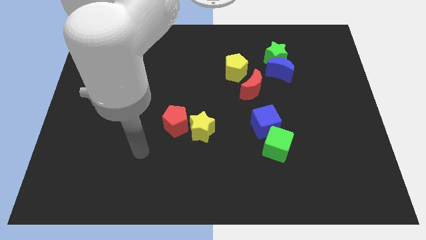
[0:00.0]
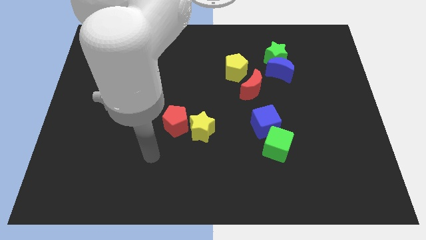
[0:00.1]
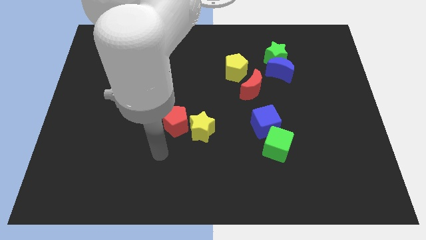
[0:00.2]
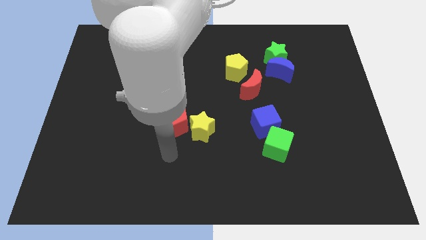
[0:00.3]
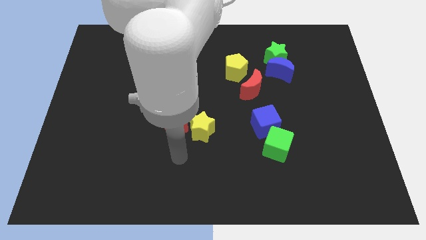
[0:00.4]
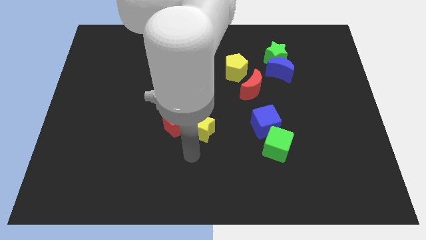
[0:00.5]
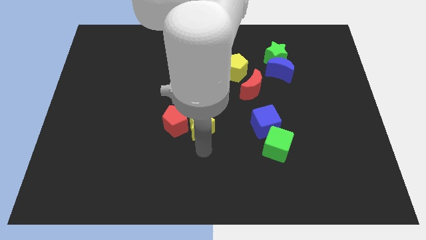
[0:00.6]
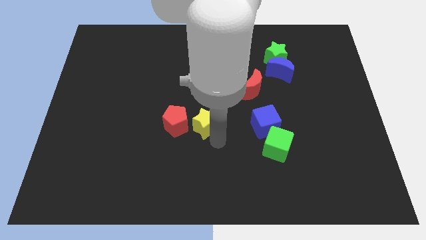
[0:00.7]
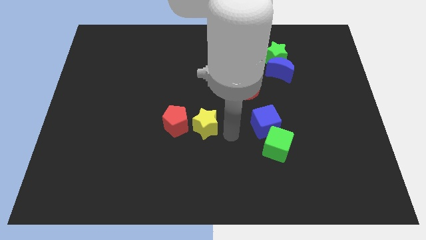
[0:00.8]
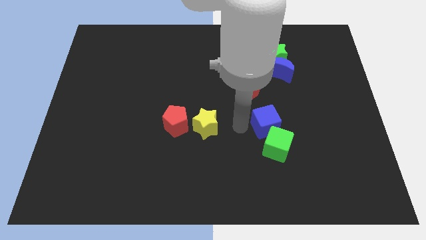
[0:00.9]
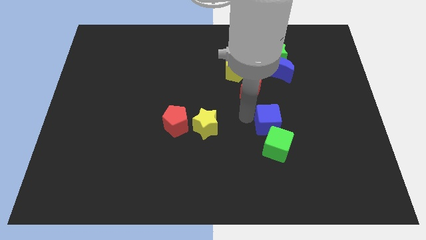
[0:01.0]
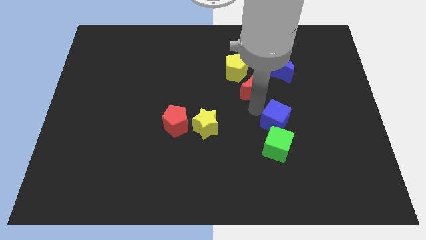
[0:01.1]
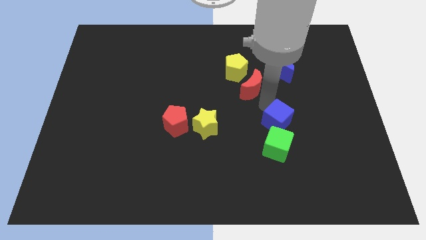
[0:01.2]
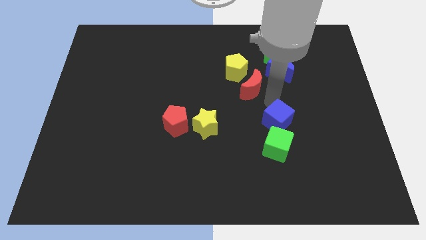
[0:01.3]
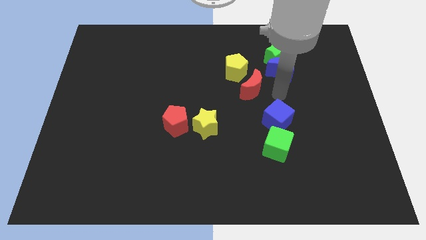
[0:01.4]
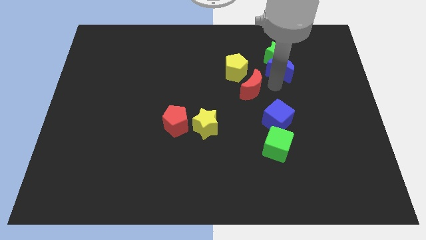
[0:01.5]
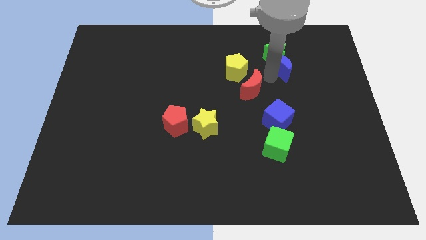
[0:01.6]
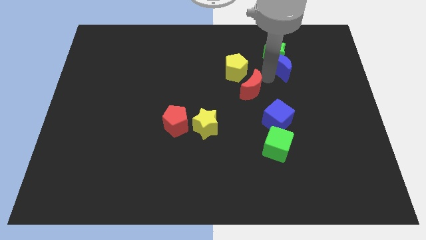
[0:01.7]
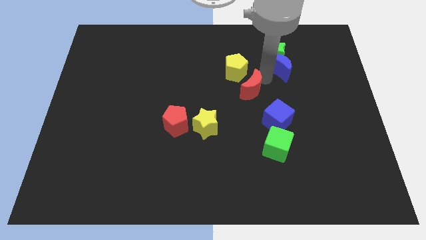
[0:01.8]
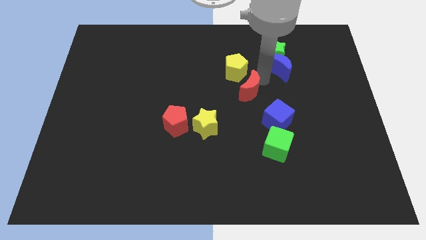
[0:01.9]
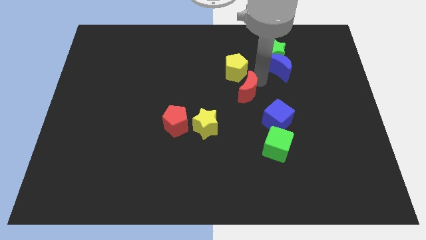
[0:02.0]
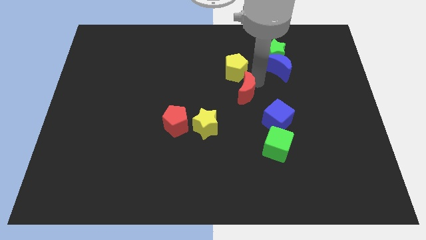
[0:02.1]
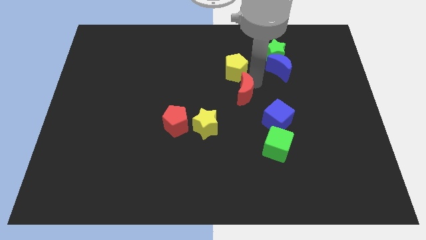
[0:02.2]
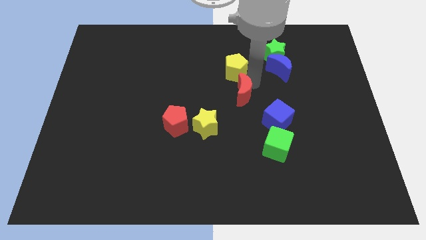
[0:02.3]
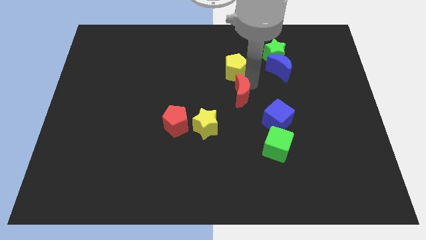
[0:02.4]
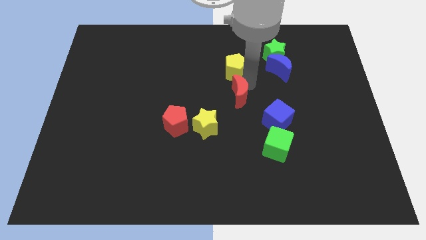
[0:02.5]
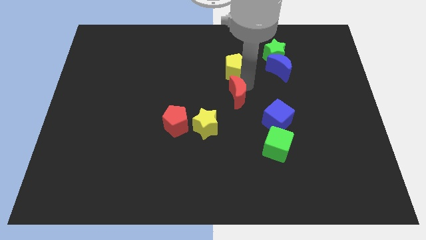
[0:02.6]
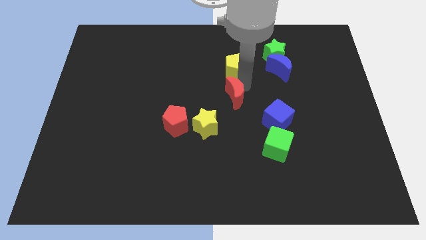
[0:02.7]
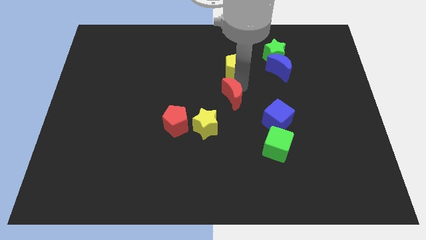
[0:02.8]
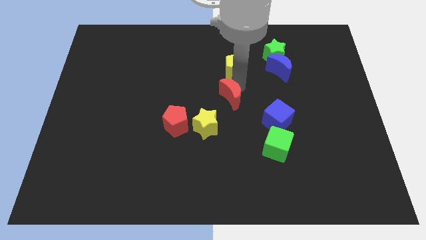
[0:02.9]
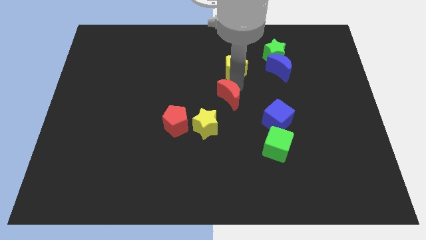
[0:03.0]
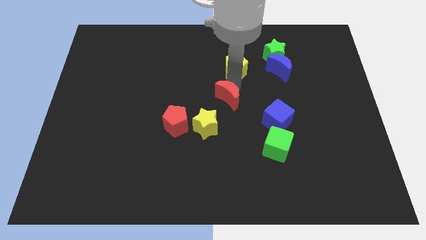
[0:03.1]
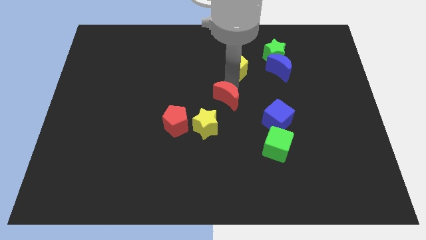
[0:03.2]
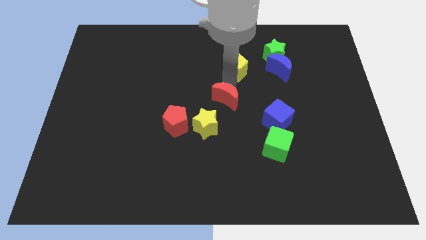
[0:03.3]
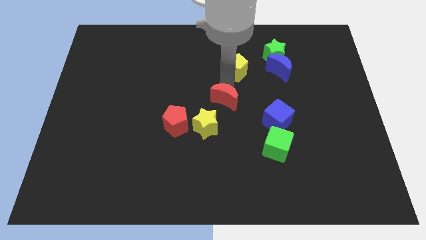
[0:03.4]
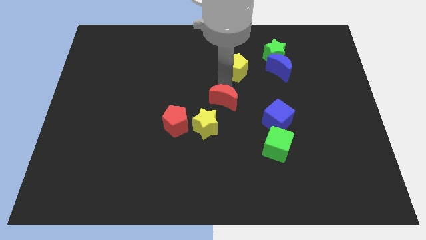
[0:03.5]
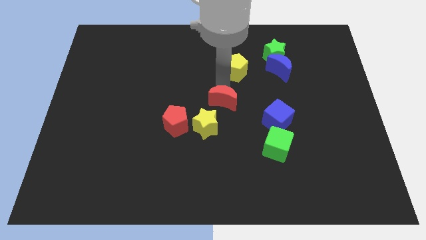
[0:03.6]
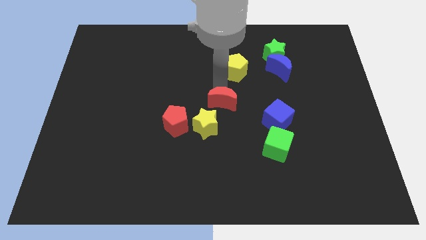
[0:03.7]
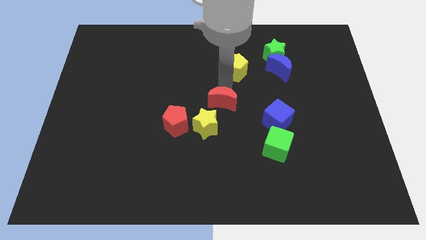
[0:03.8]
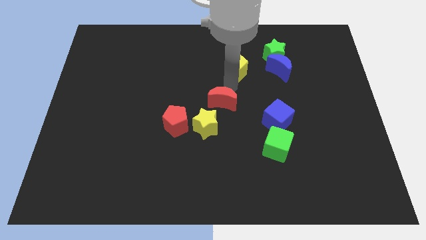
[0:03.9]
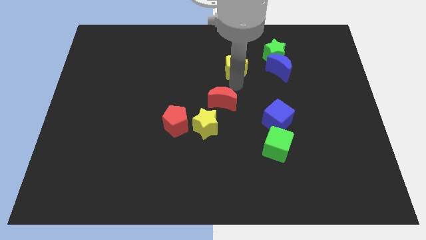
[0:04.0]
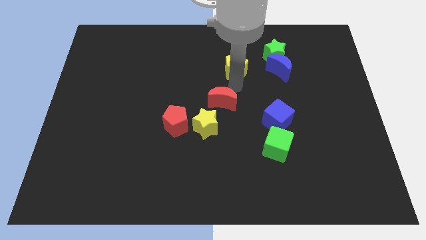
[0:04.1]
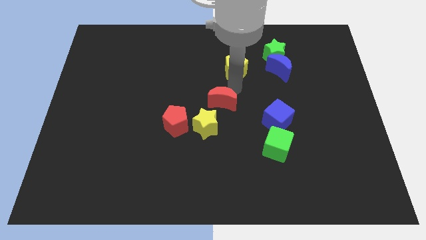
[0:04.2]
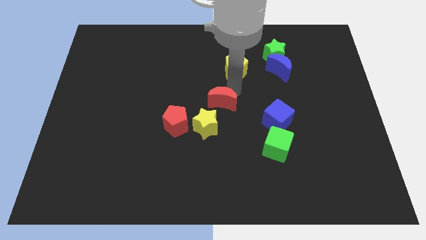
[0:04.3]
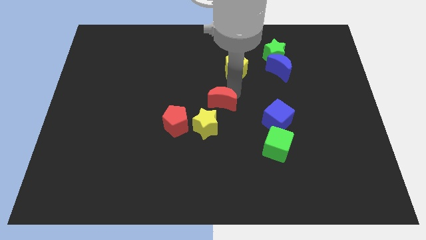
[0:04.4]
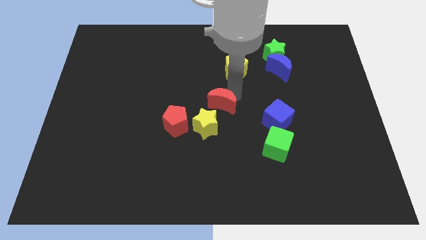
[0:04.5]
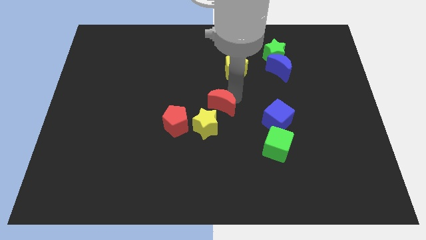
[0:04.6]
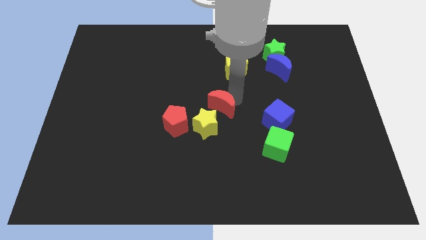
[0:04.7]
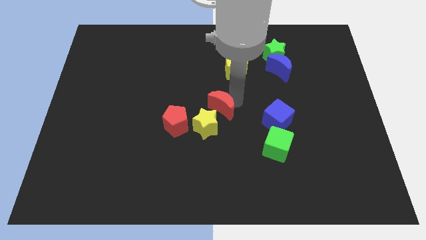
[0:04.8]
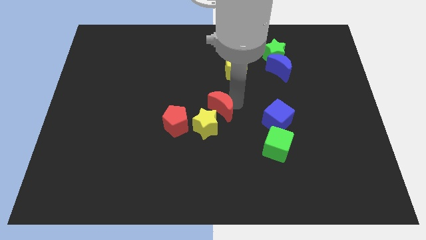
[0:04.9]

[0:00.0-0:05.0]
push the red moon next to the yellow star

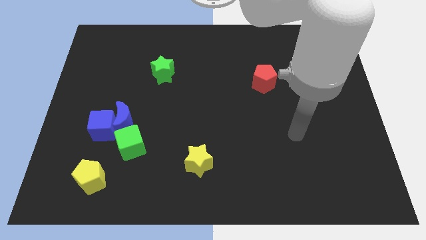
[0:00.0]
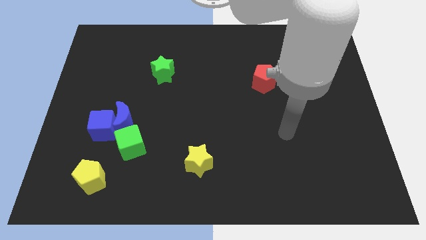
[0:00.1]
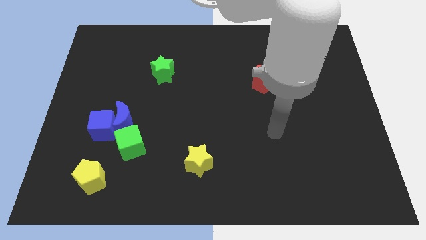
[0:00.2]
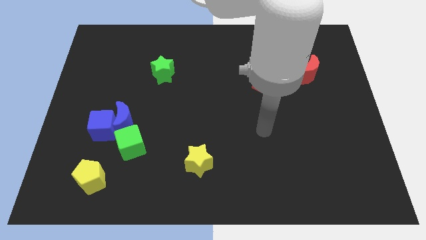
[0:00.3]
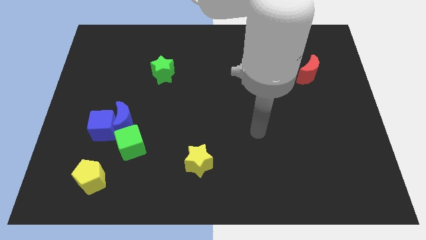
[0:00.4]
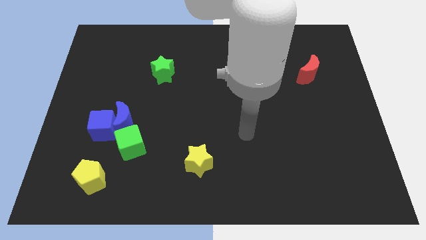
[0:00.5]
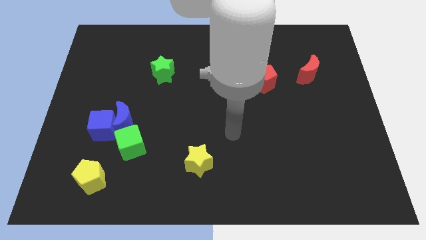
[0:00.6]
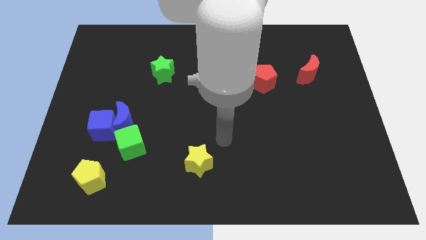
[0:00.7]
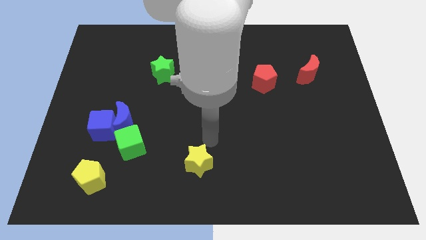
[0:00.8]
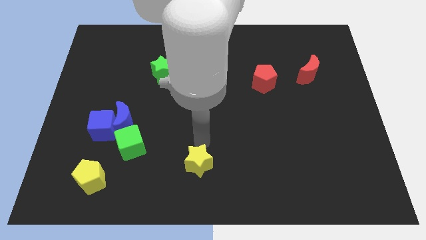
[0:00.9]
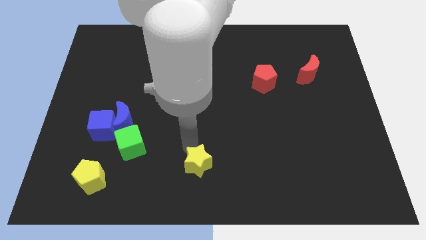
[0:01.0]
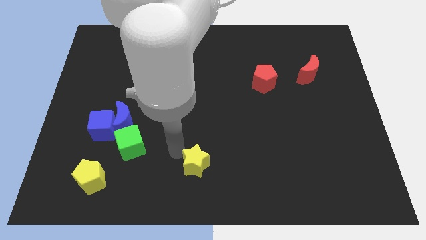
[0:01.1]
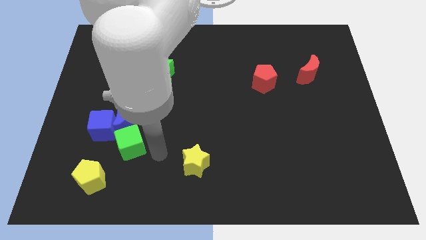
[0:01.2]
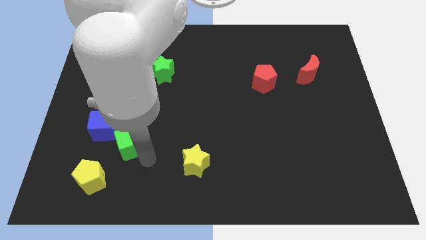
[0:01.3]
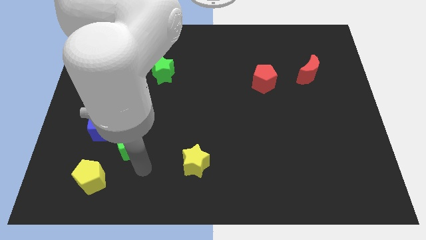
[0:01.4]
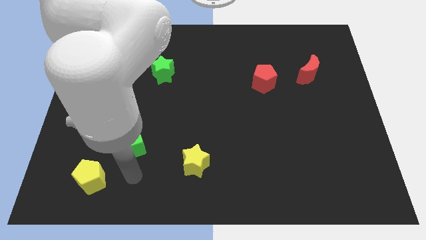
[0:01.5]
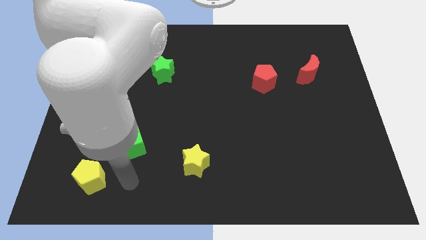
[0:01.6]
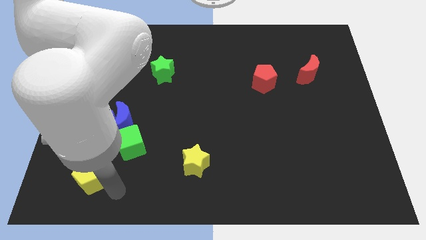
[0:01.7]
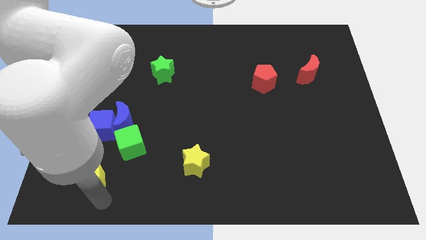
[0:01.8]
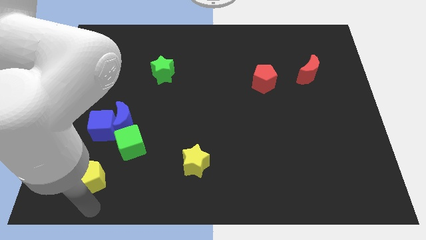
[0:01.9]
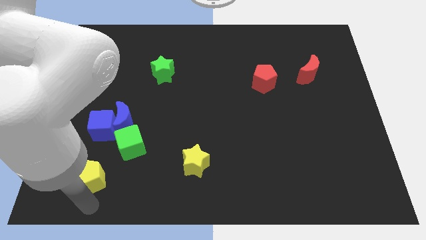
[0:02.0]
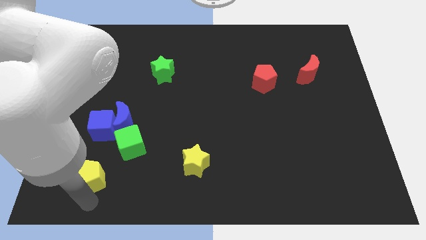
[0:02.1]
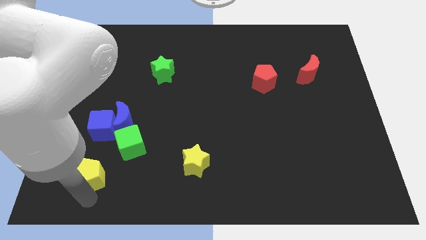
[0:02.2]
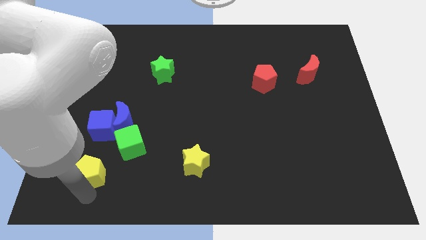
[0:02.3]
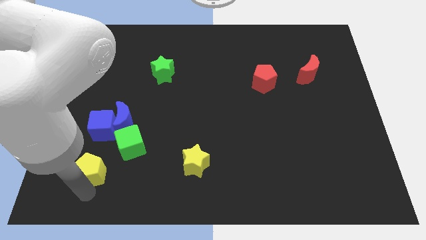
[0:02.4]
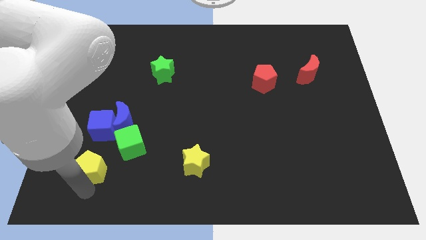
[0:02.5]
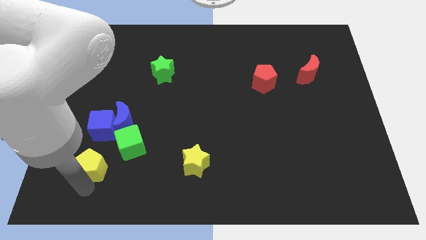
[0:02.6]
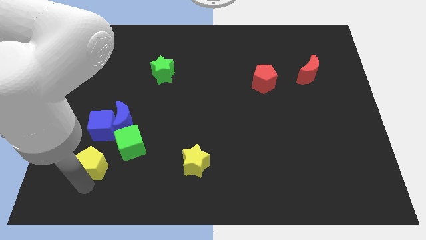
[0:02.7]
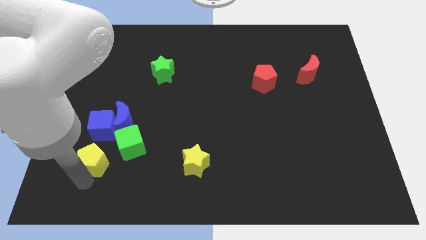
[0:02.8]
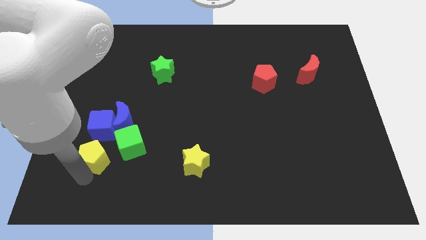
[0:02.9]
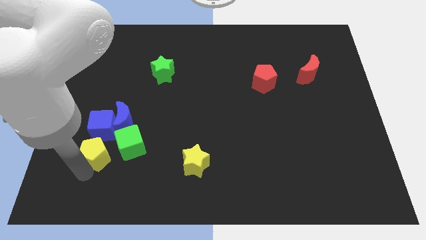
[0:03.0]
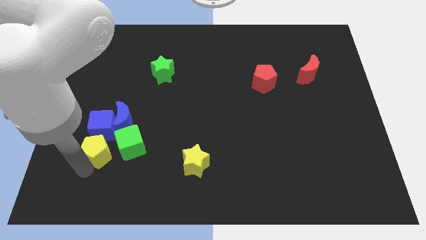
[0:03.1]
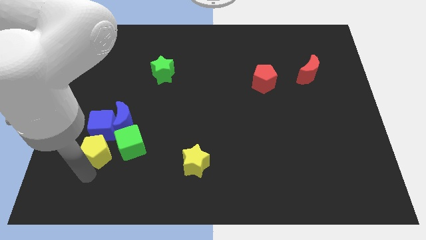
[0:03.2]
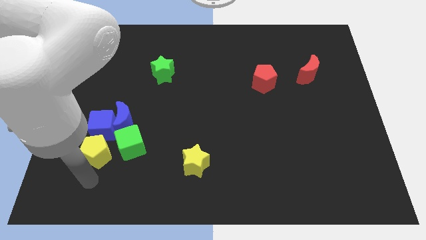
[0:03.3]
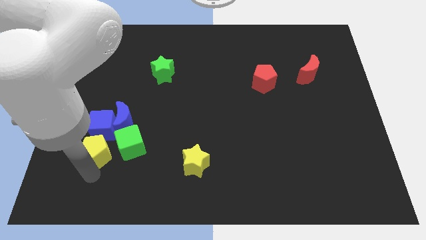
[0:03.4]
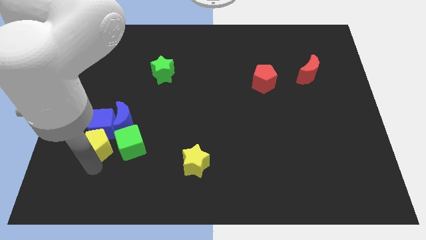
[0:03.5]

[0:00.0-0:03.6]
slide the yellow pentagon towards the blue cube
